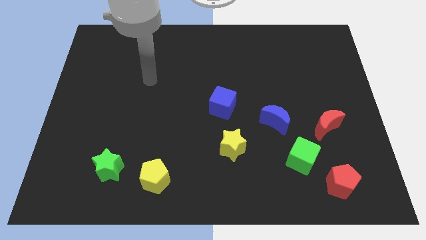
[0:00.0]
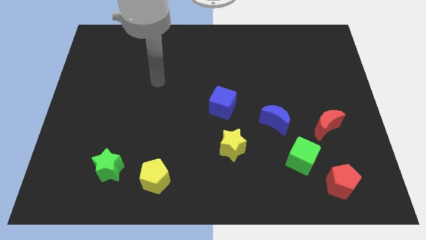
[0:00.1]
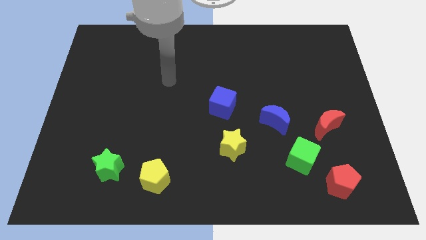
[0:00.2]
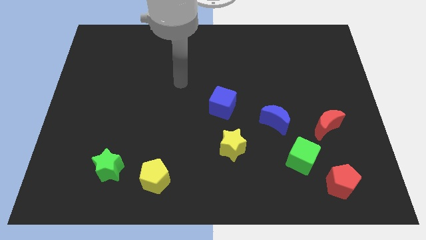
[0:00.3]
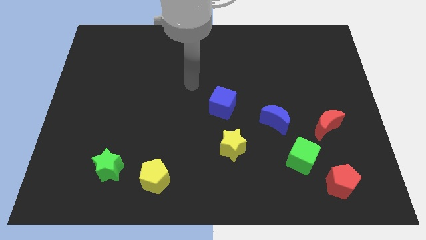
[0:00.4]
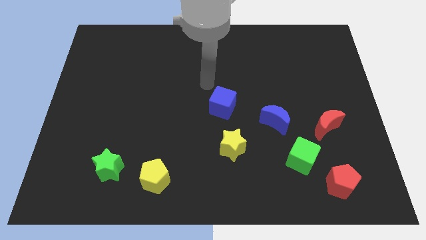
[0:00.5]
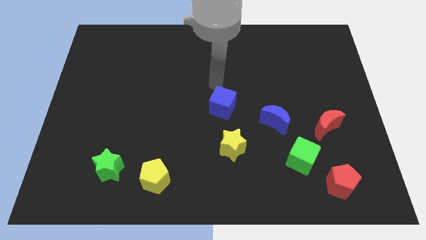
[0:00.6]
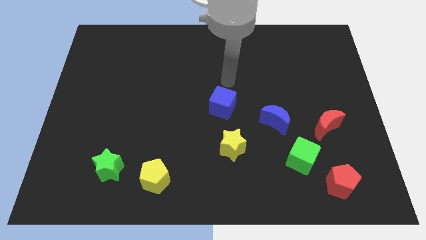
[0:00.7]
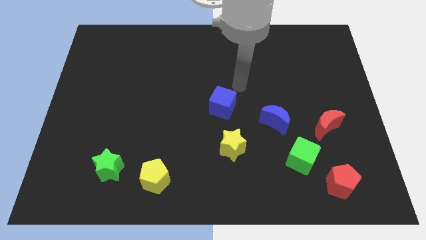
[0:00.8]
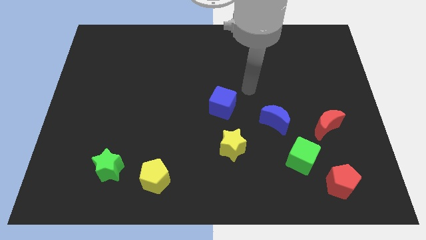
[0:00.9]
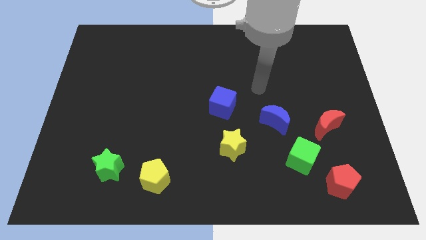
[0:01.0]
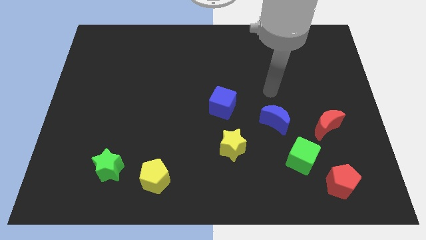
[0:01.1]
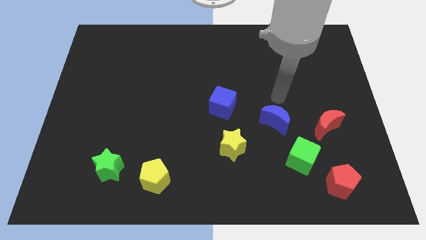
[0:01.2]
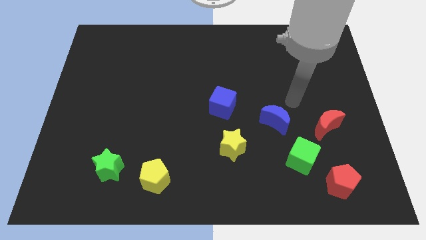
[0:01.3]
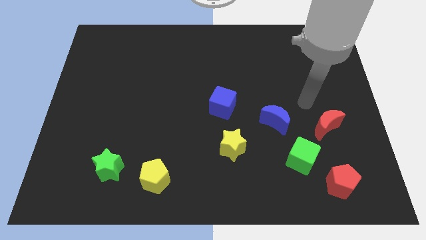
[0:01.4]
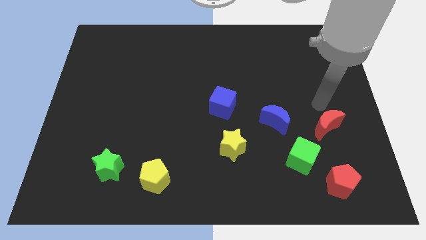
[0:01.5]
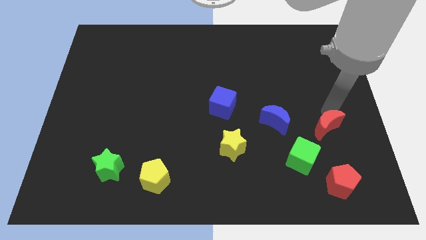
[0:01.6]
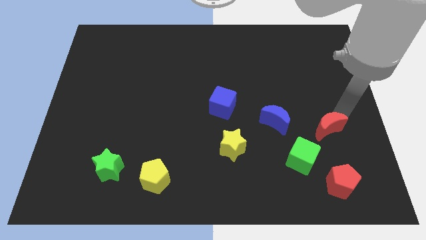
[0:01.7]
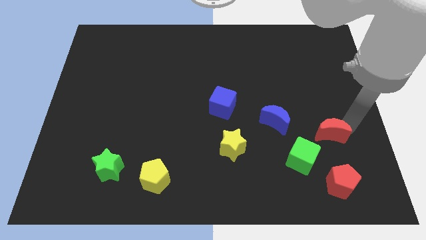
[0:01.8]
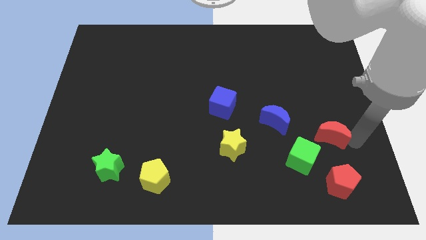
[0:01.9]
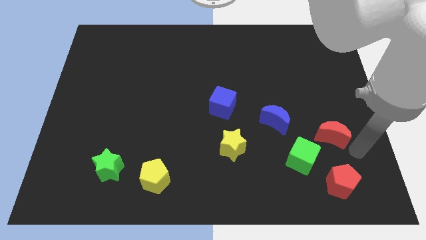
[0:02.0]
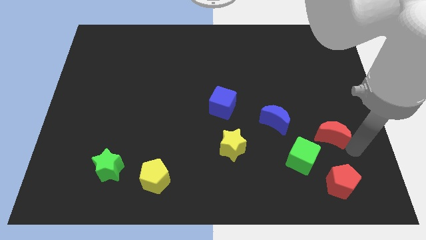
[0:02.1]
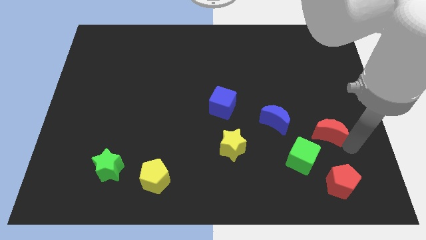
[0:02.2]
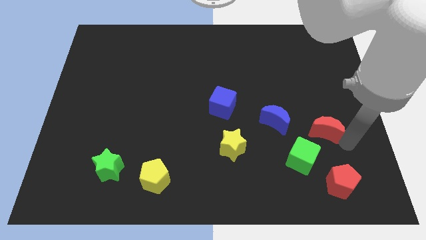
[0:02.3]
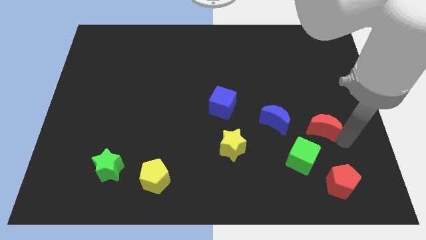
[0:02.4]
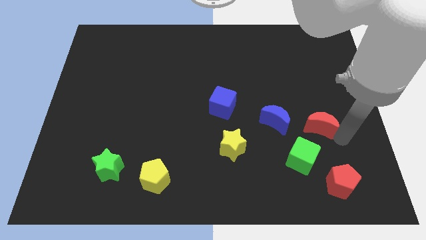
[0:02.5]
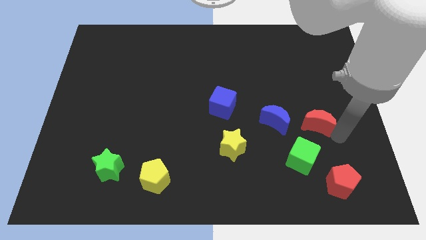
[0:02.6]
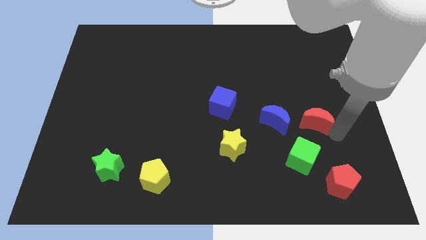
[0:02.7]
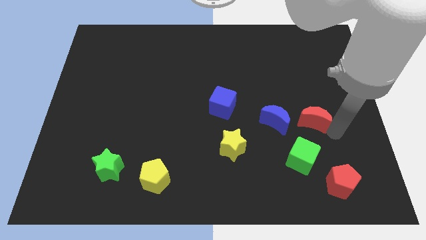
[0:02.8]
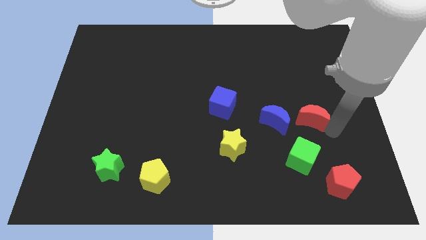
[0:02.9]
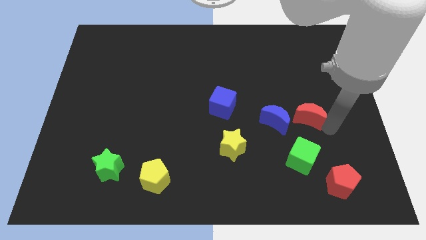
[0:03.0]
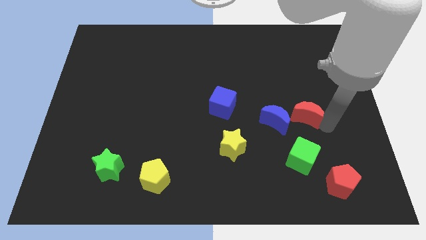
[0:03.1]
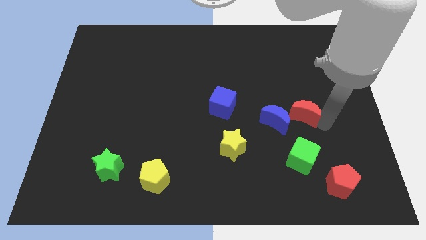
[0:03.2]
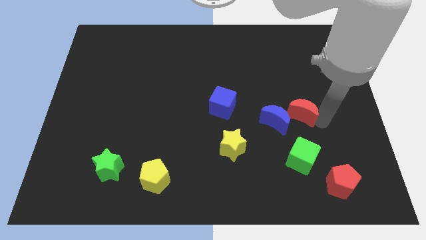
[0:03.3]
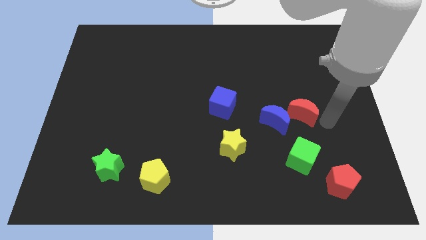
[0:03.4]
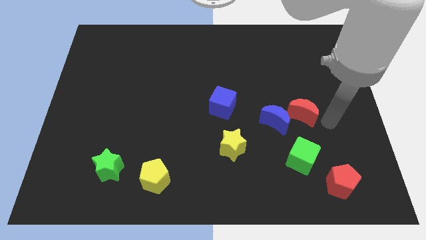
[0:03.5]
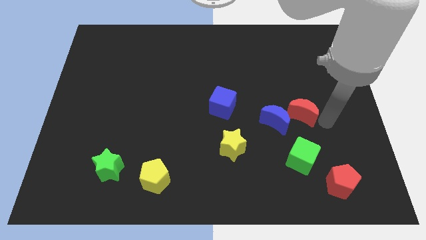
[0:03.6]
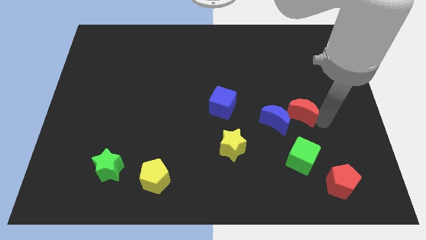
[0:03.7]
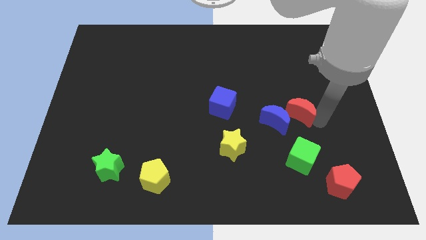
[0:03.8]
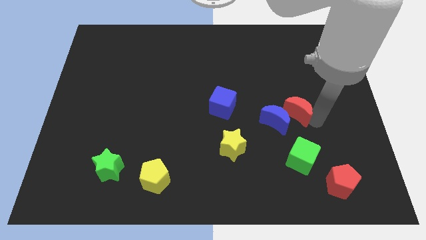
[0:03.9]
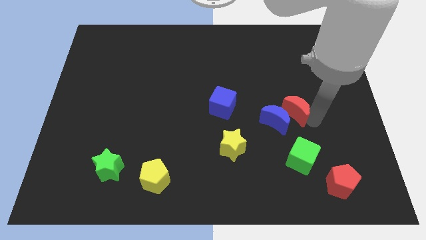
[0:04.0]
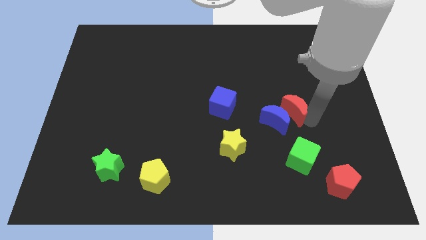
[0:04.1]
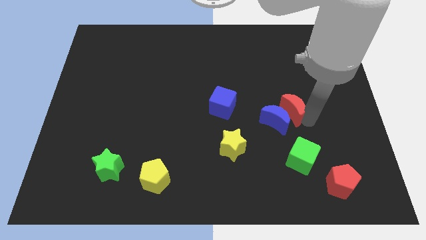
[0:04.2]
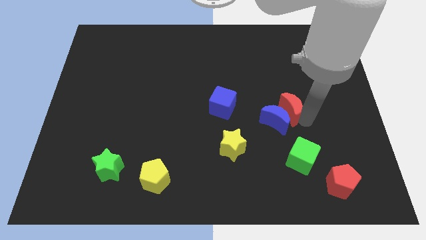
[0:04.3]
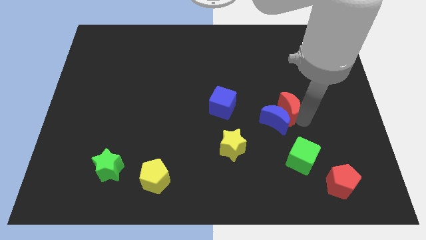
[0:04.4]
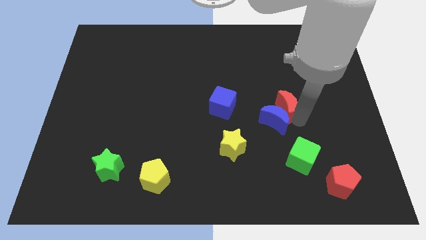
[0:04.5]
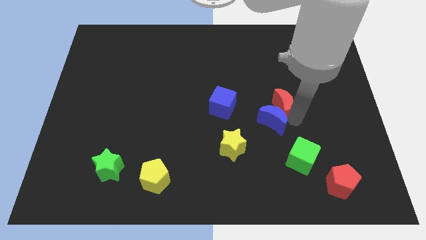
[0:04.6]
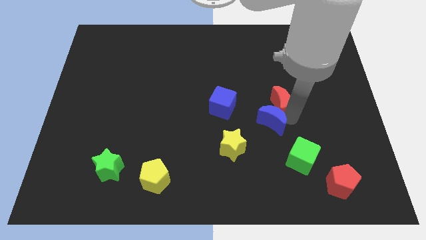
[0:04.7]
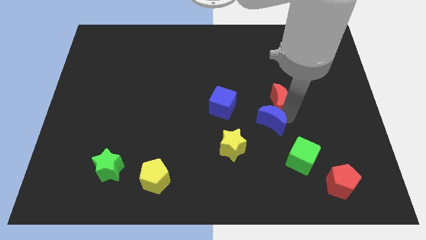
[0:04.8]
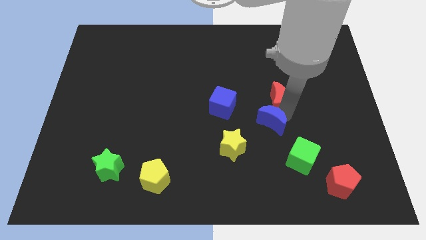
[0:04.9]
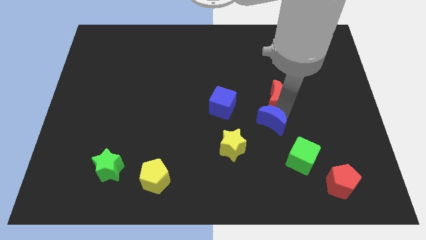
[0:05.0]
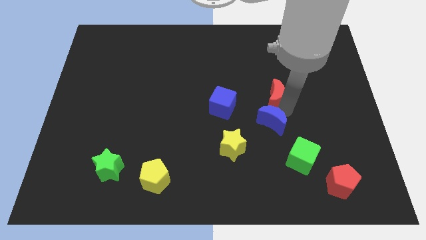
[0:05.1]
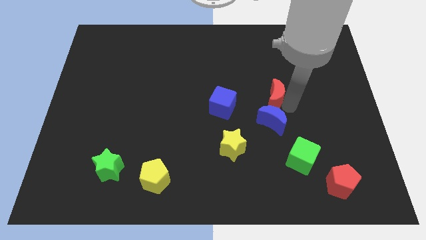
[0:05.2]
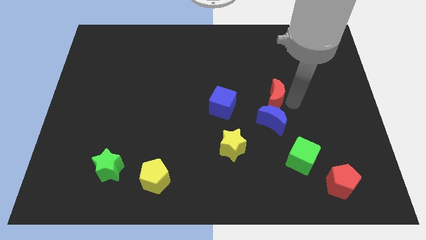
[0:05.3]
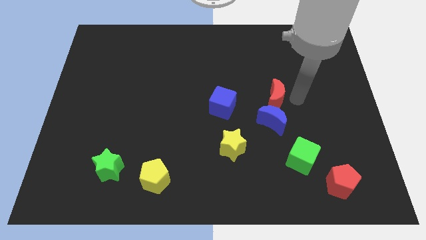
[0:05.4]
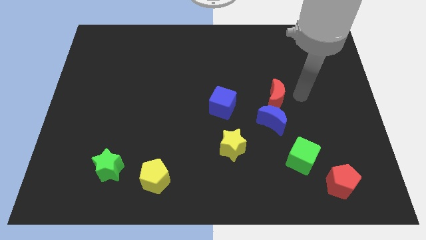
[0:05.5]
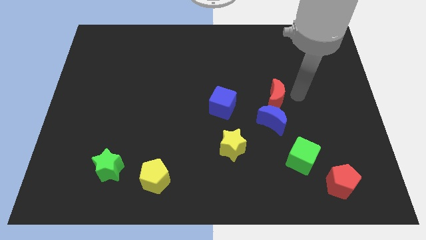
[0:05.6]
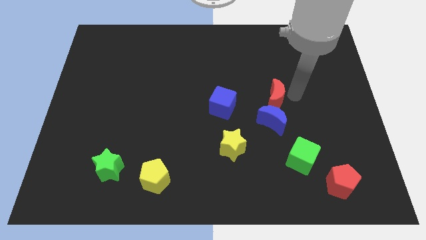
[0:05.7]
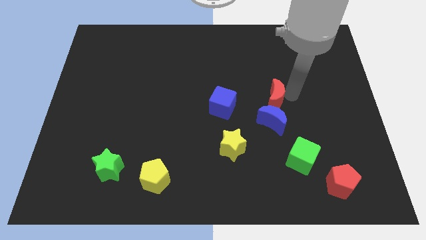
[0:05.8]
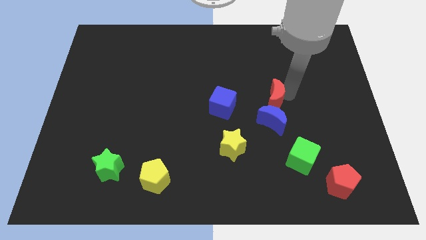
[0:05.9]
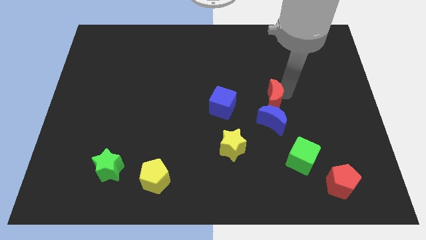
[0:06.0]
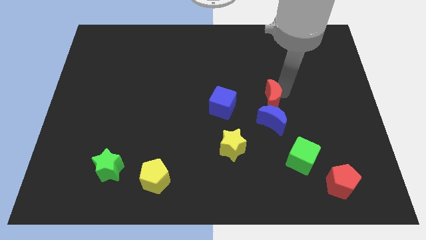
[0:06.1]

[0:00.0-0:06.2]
move the red moon to the top left of the blue moon
